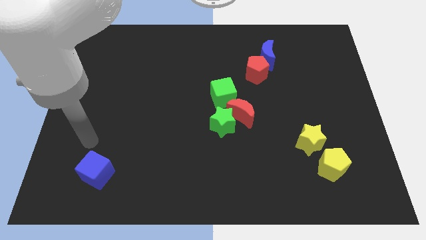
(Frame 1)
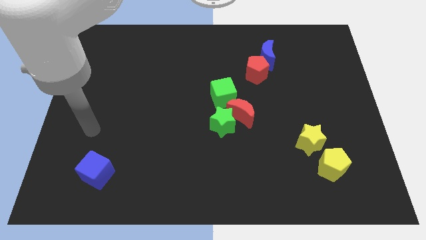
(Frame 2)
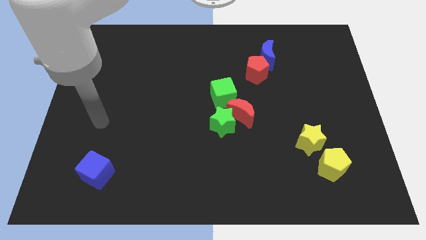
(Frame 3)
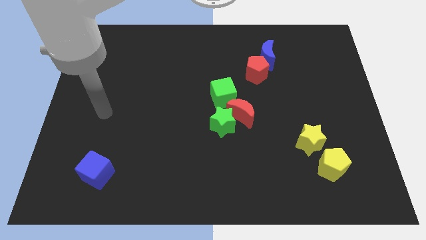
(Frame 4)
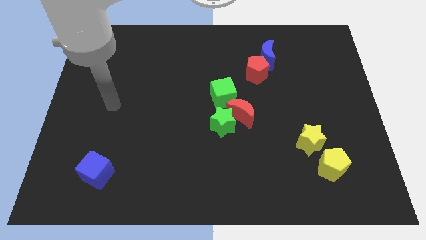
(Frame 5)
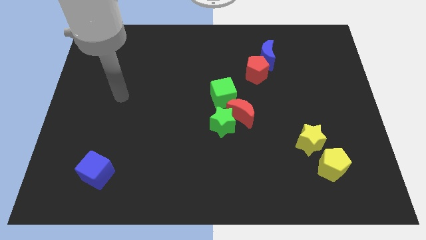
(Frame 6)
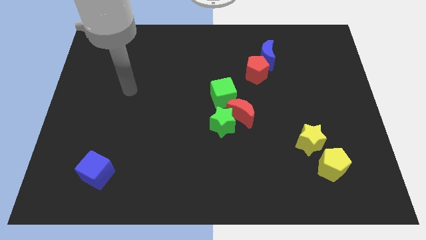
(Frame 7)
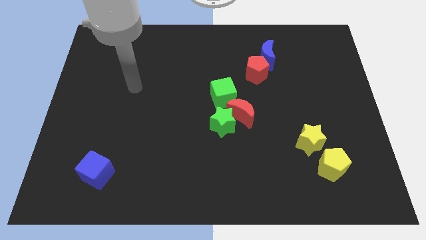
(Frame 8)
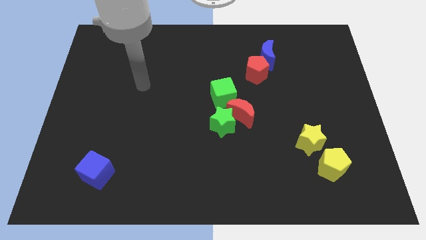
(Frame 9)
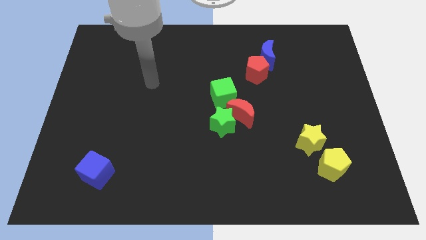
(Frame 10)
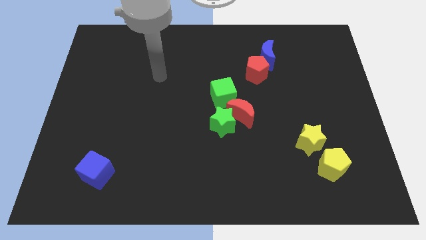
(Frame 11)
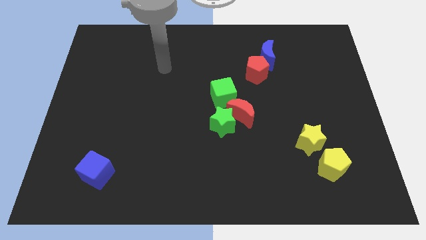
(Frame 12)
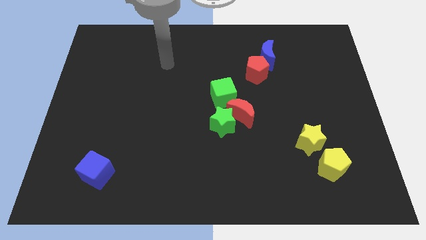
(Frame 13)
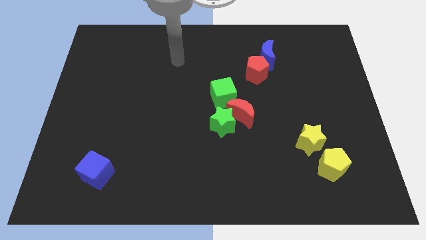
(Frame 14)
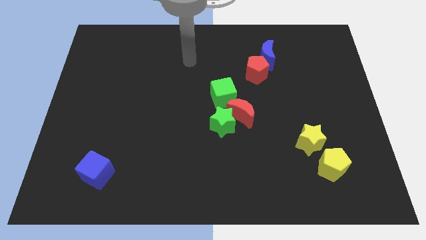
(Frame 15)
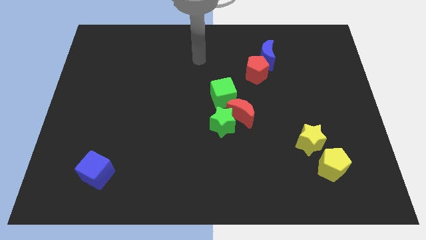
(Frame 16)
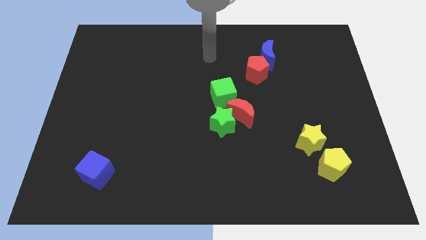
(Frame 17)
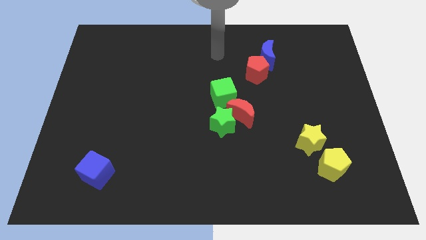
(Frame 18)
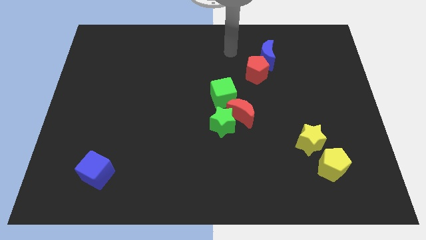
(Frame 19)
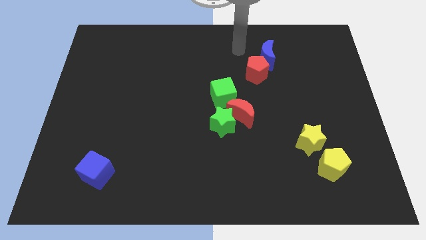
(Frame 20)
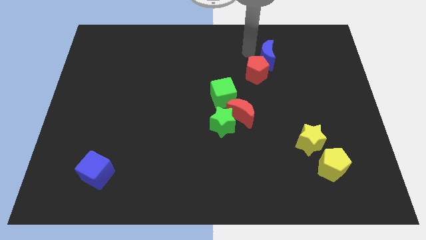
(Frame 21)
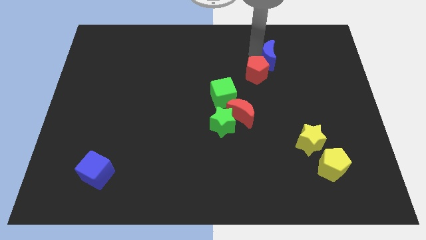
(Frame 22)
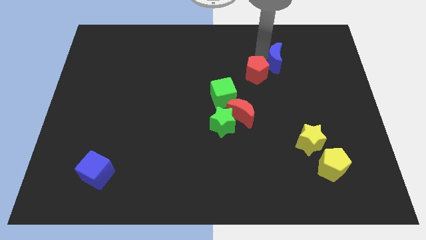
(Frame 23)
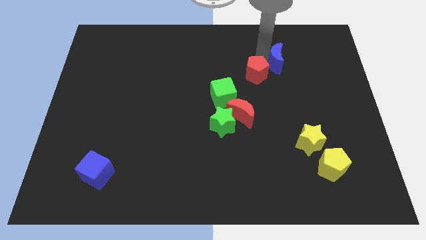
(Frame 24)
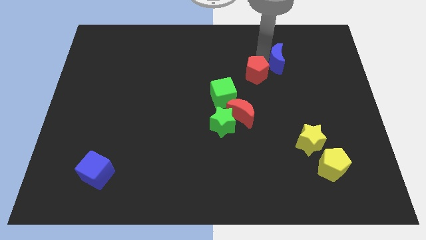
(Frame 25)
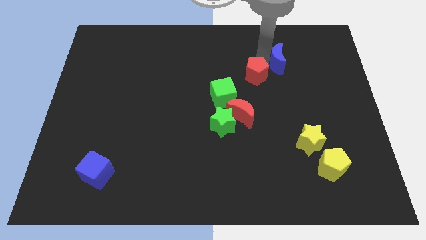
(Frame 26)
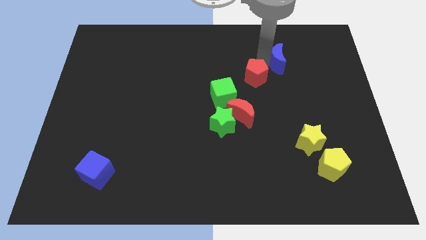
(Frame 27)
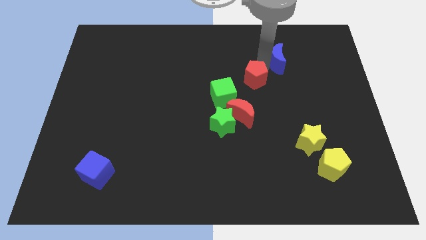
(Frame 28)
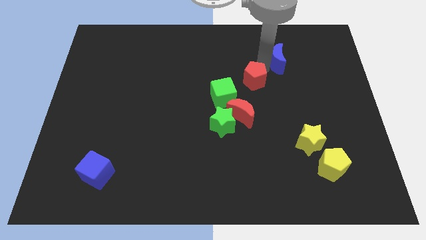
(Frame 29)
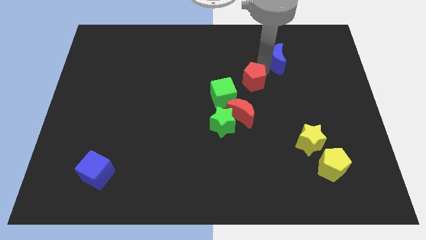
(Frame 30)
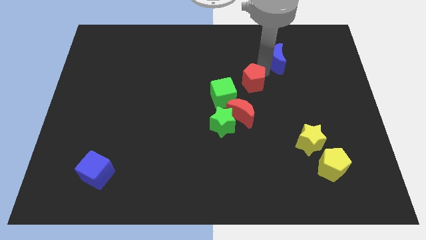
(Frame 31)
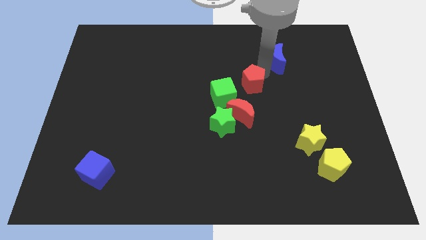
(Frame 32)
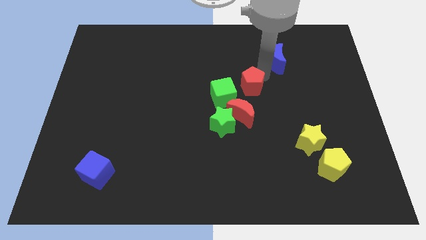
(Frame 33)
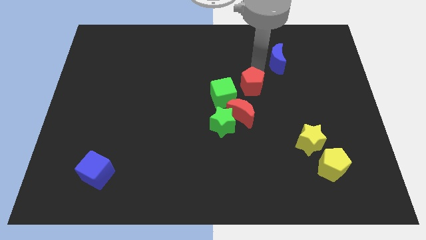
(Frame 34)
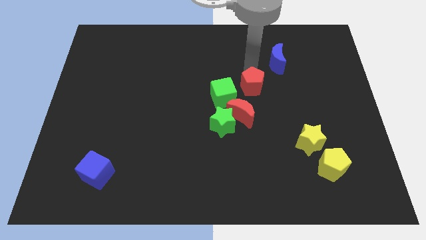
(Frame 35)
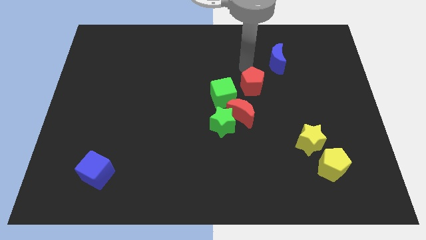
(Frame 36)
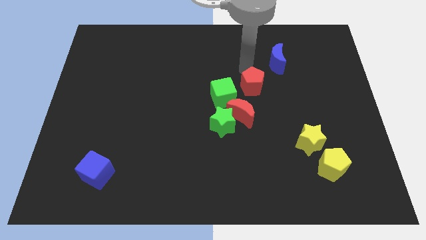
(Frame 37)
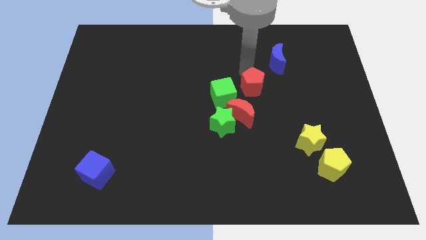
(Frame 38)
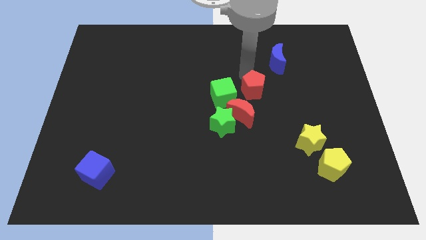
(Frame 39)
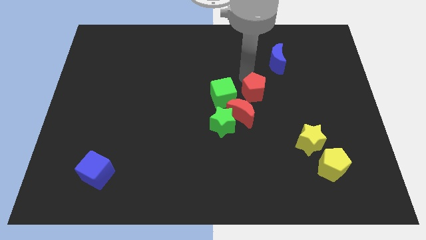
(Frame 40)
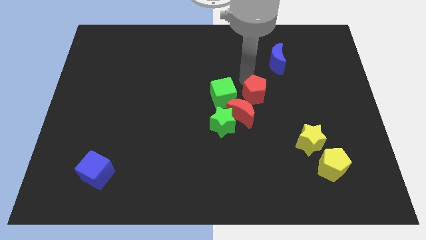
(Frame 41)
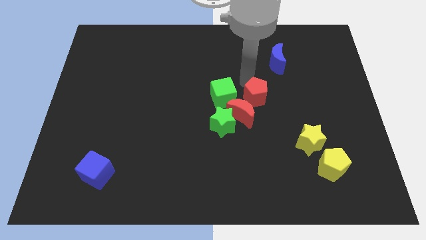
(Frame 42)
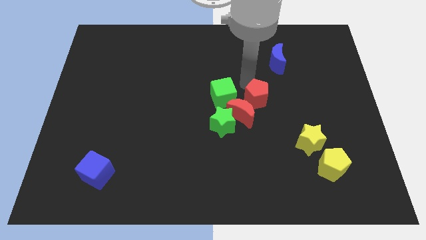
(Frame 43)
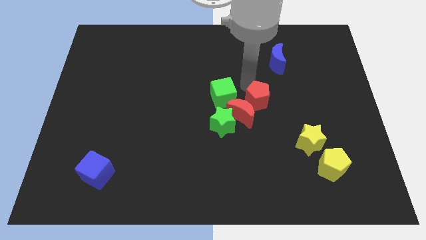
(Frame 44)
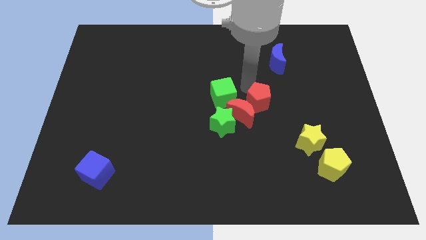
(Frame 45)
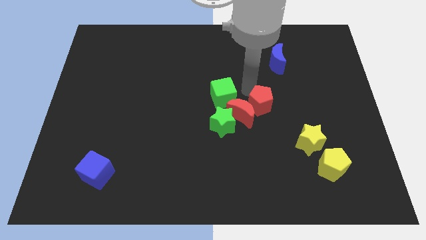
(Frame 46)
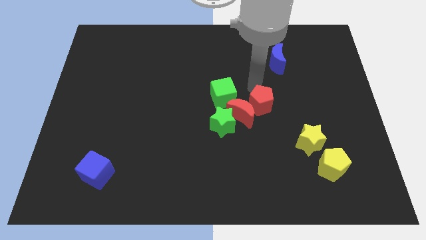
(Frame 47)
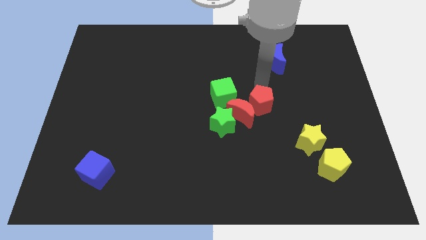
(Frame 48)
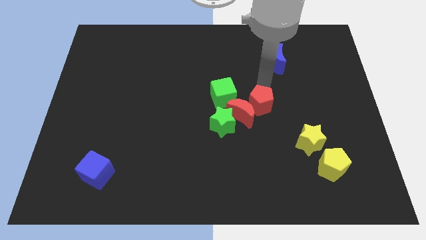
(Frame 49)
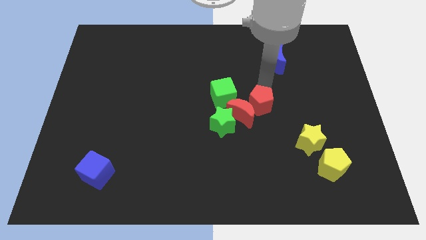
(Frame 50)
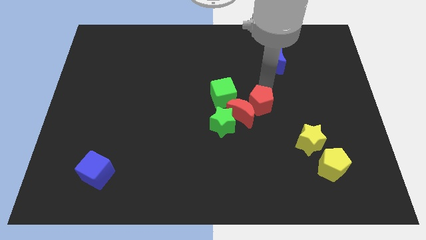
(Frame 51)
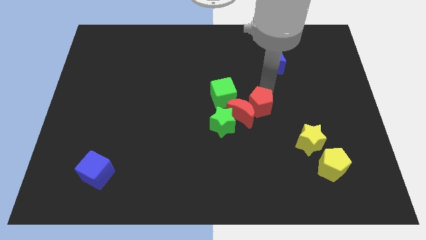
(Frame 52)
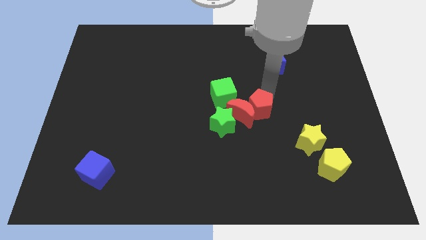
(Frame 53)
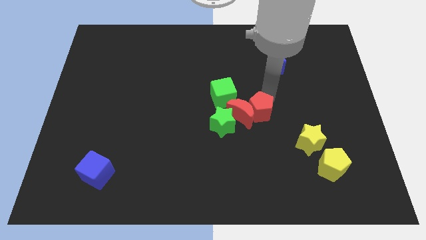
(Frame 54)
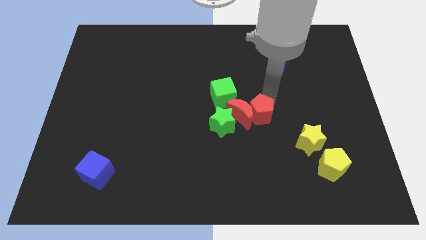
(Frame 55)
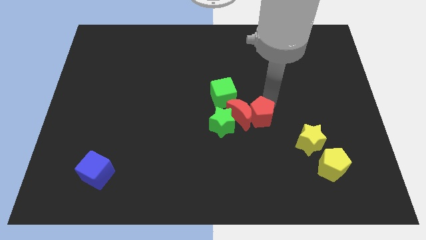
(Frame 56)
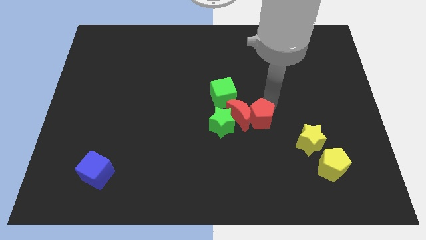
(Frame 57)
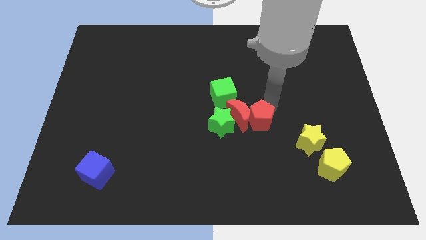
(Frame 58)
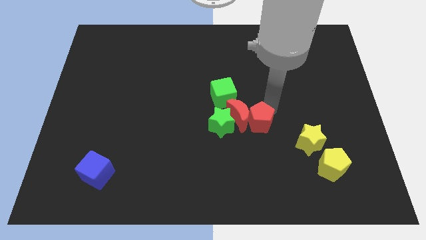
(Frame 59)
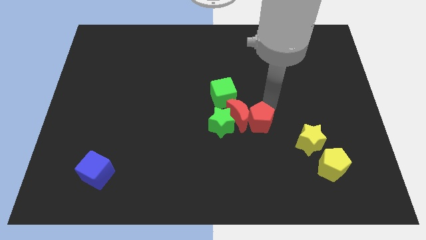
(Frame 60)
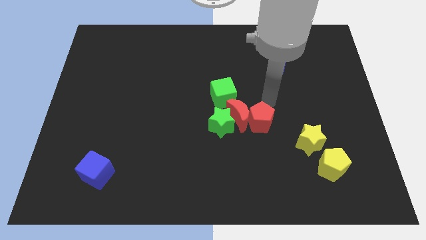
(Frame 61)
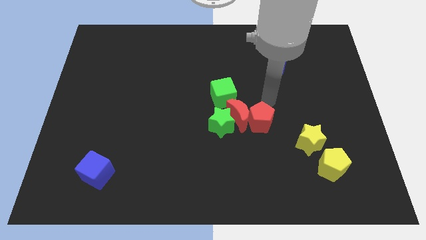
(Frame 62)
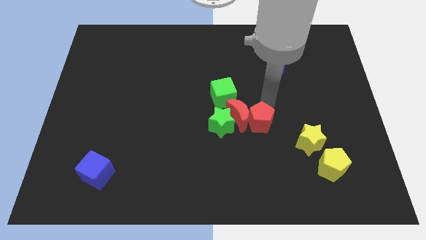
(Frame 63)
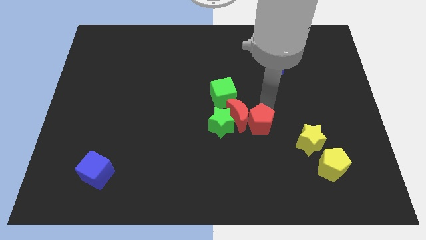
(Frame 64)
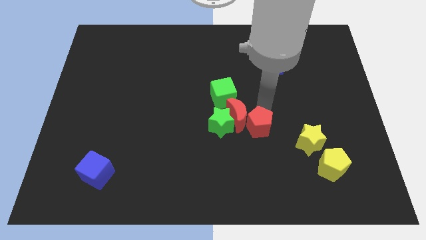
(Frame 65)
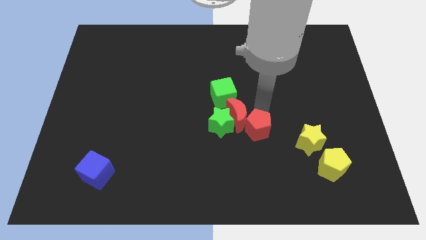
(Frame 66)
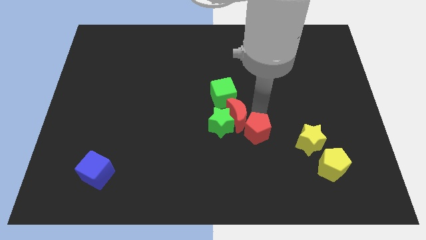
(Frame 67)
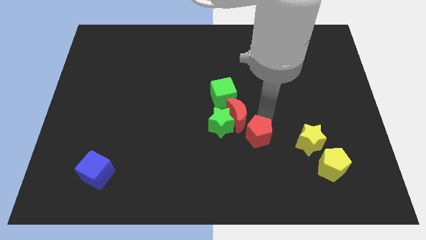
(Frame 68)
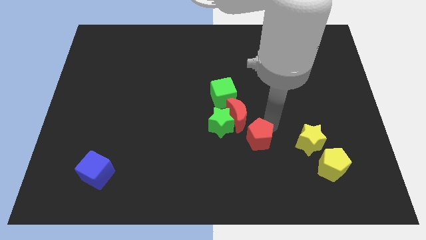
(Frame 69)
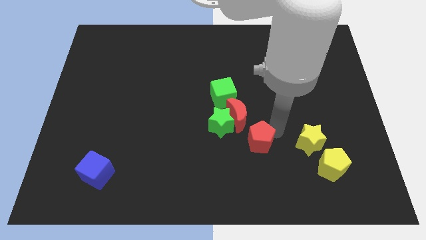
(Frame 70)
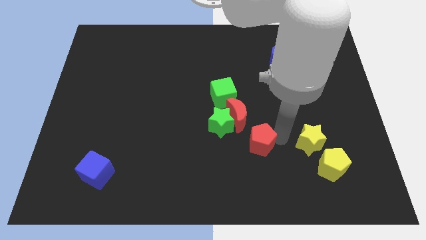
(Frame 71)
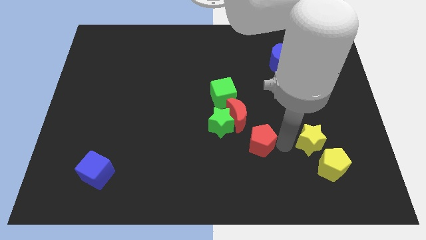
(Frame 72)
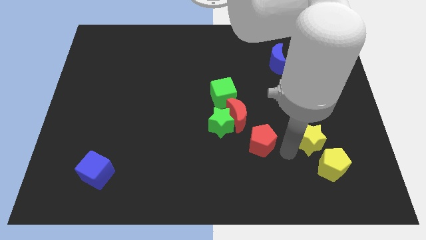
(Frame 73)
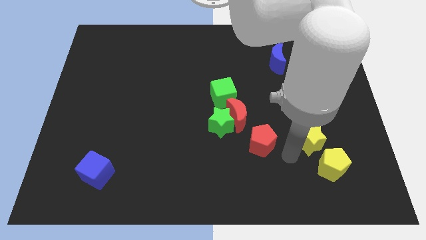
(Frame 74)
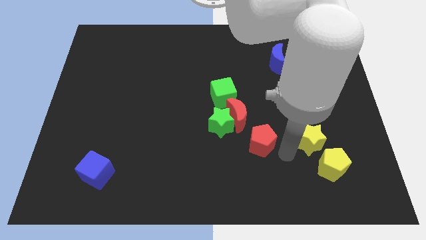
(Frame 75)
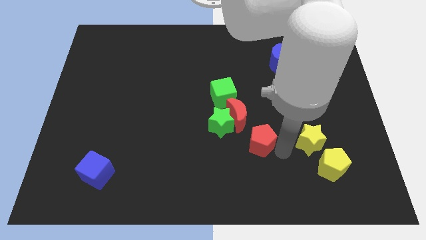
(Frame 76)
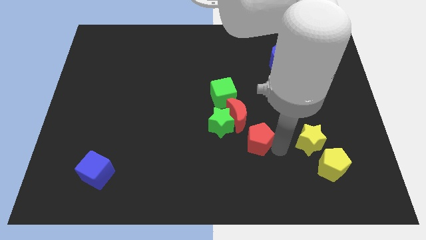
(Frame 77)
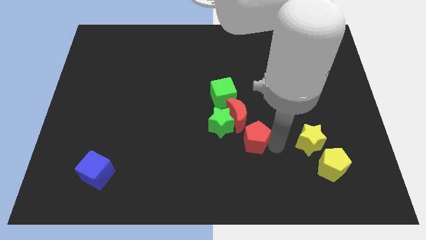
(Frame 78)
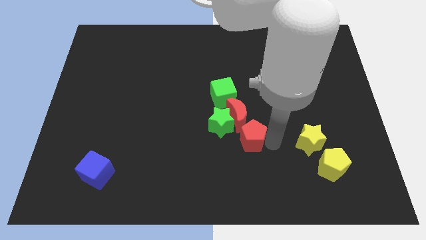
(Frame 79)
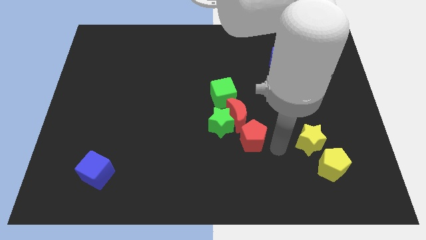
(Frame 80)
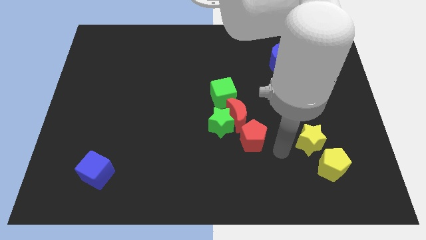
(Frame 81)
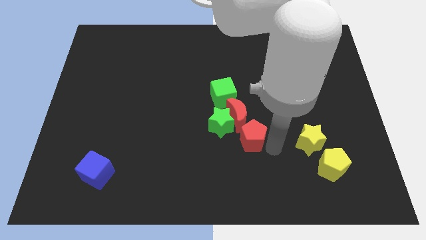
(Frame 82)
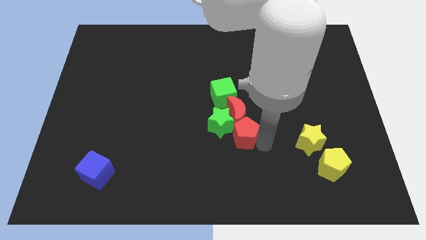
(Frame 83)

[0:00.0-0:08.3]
slide the red pentagon next to the green star
